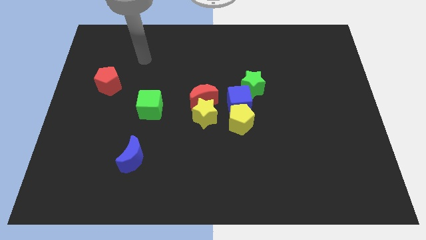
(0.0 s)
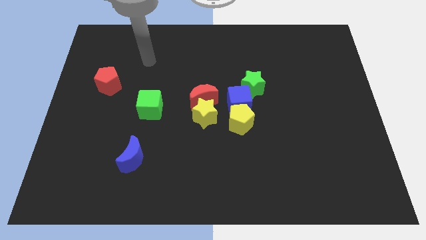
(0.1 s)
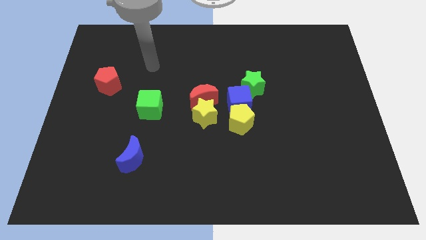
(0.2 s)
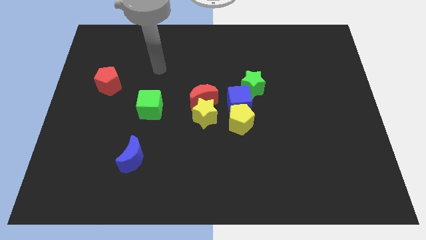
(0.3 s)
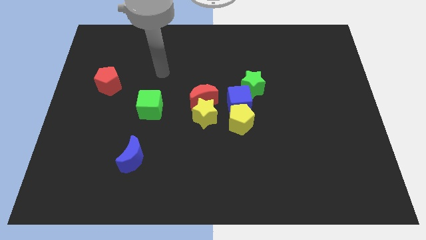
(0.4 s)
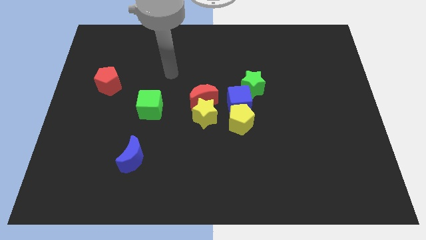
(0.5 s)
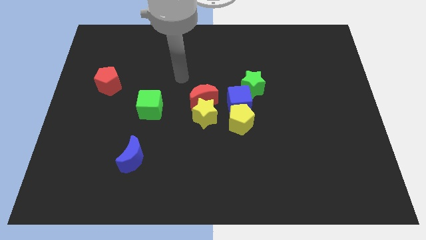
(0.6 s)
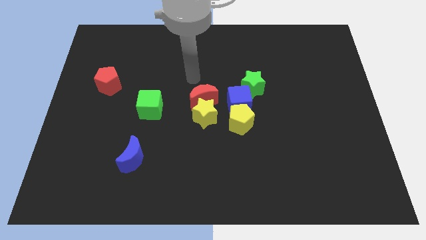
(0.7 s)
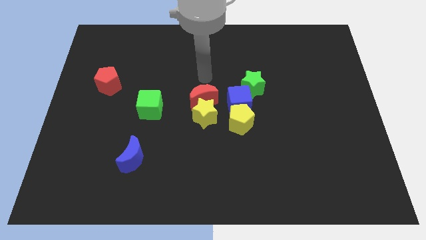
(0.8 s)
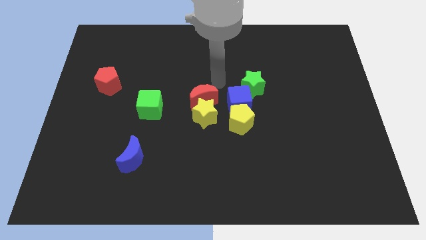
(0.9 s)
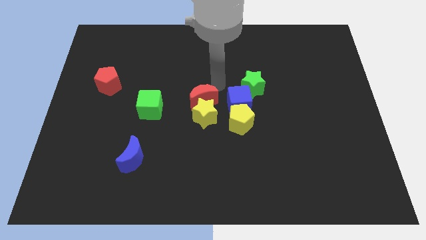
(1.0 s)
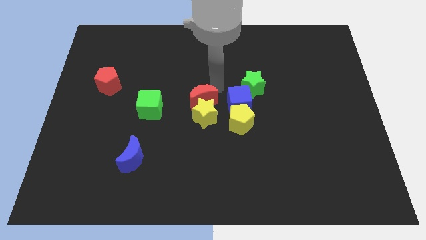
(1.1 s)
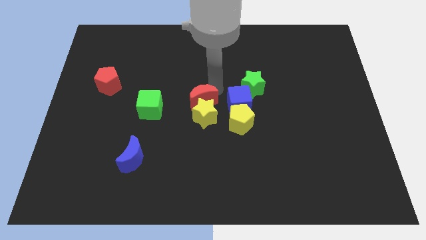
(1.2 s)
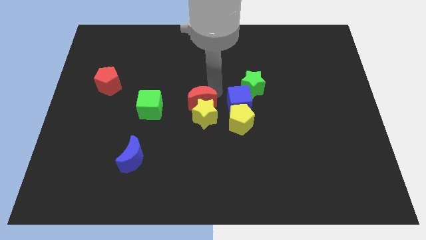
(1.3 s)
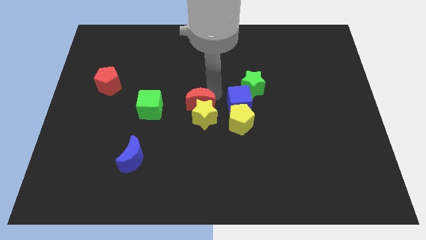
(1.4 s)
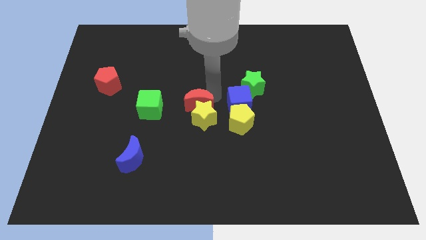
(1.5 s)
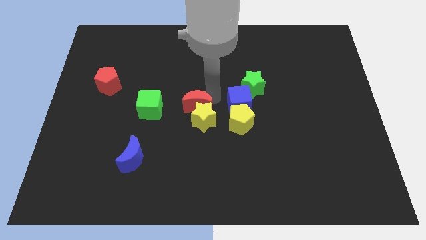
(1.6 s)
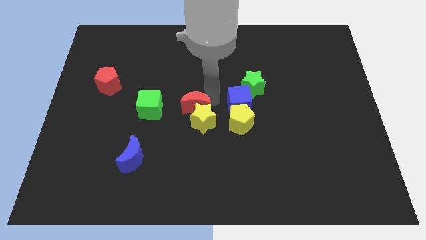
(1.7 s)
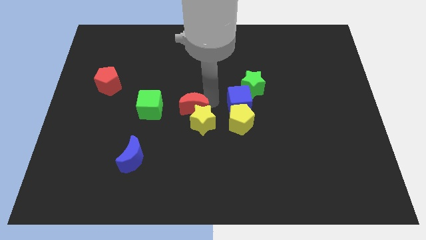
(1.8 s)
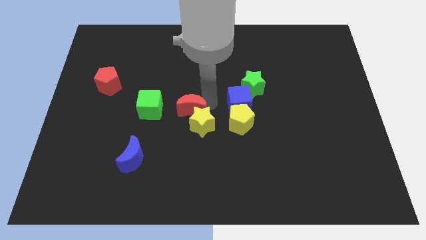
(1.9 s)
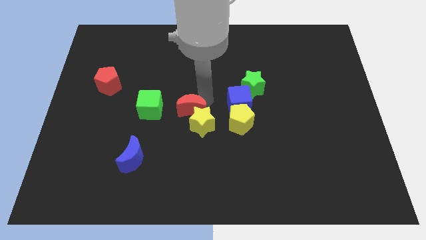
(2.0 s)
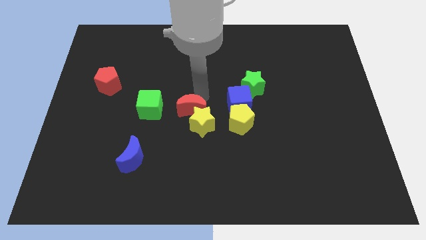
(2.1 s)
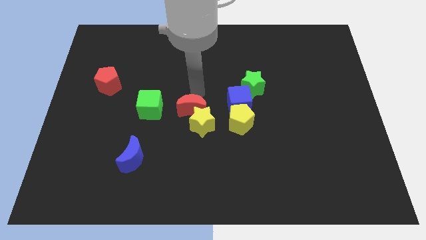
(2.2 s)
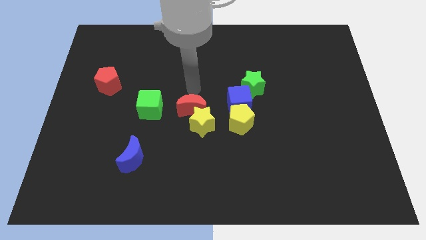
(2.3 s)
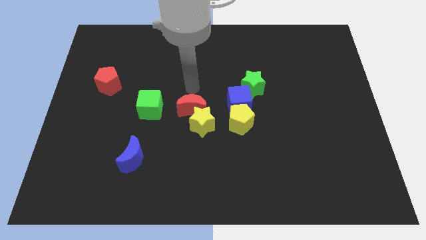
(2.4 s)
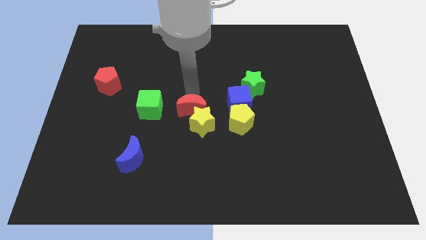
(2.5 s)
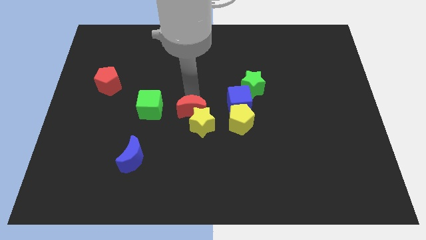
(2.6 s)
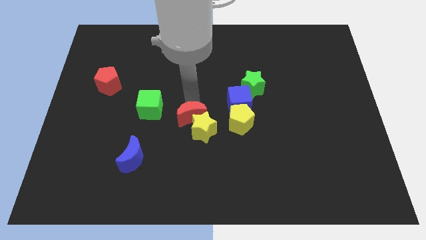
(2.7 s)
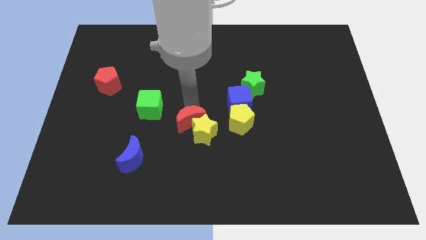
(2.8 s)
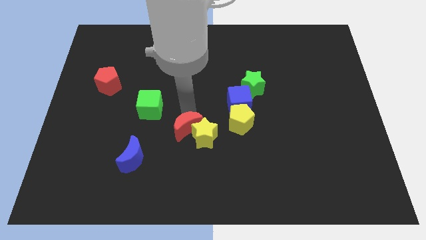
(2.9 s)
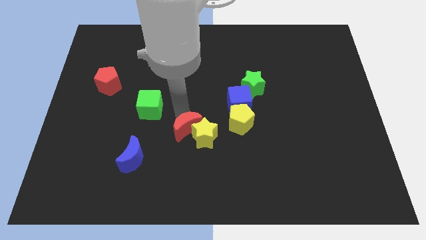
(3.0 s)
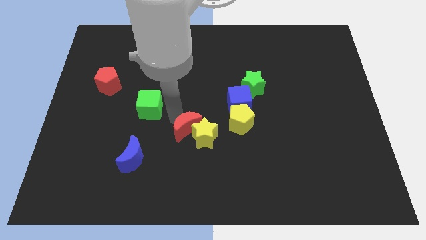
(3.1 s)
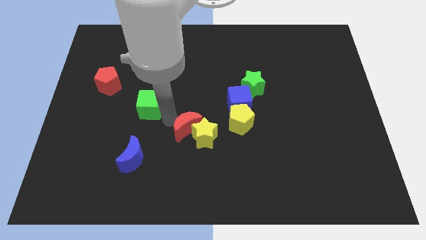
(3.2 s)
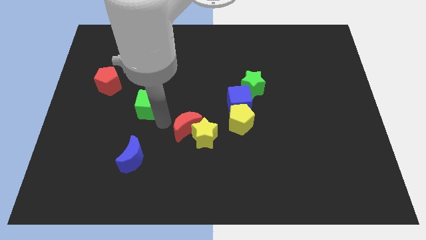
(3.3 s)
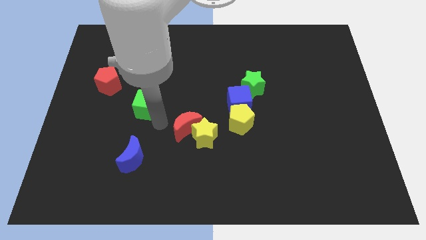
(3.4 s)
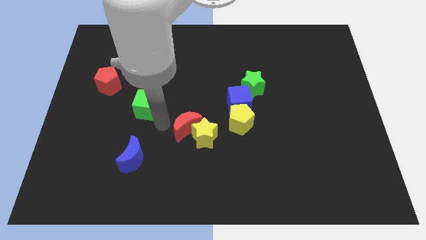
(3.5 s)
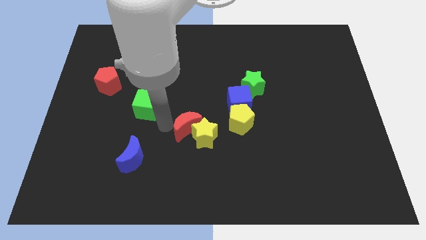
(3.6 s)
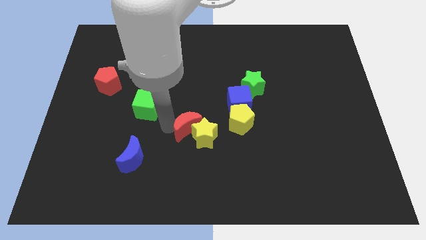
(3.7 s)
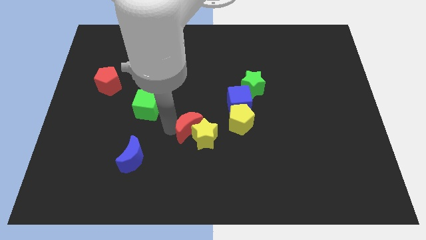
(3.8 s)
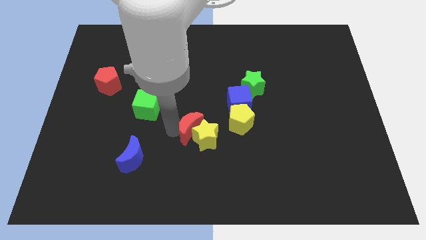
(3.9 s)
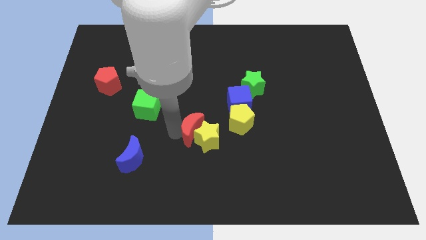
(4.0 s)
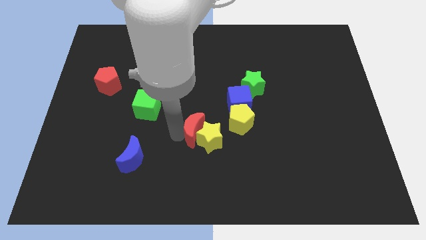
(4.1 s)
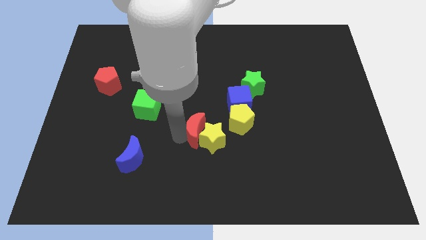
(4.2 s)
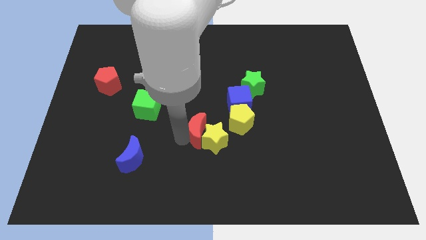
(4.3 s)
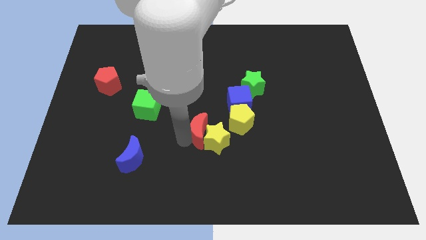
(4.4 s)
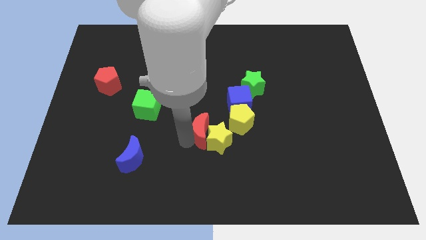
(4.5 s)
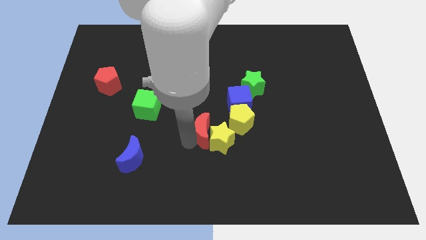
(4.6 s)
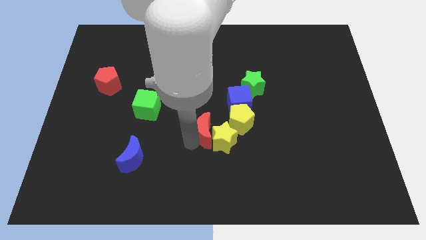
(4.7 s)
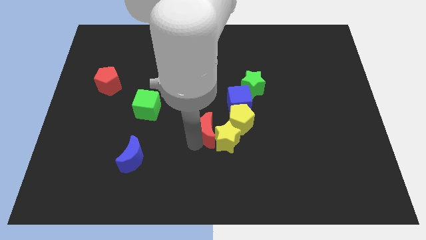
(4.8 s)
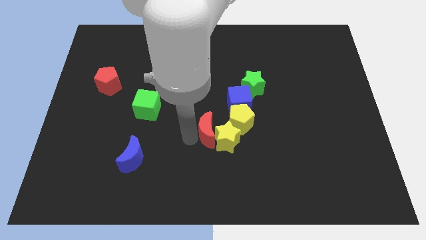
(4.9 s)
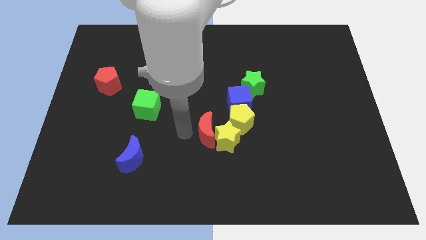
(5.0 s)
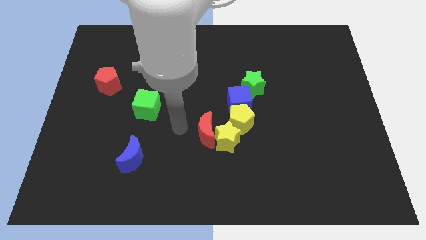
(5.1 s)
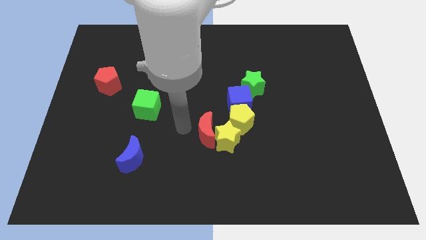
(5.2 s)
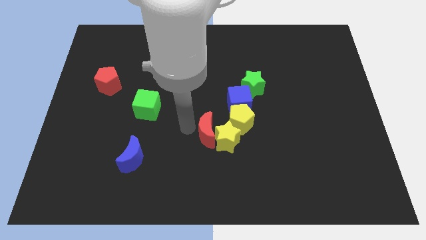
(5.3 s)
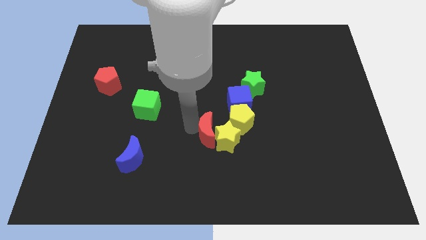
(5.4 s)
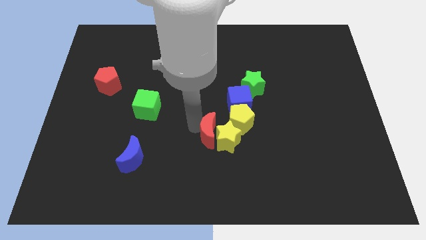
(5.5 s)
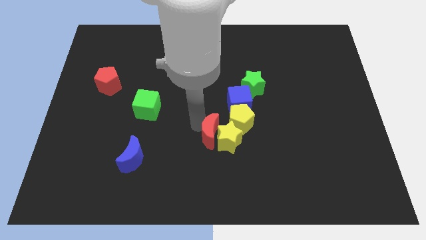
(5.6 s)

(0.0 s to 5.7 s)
move the red moon somewhat diagonally downwards and right

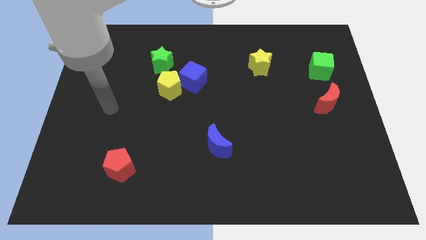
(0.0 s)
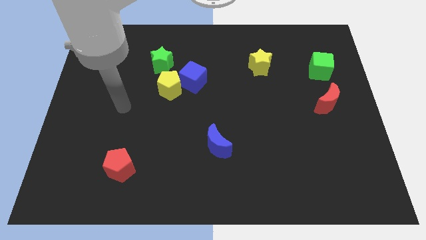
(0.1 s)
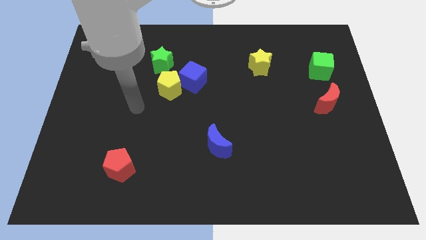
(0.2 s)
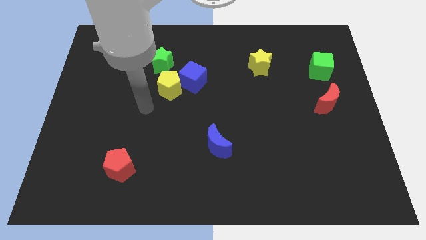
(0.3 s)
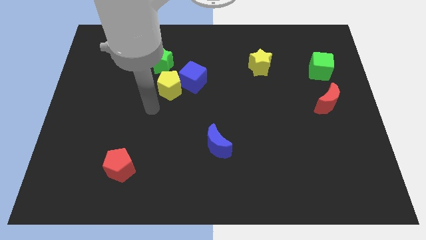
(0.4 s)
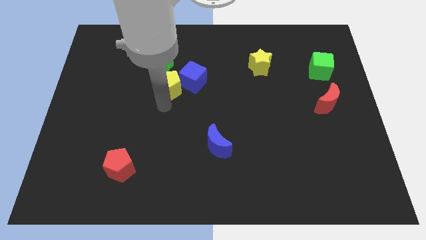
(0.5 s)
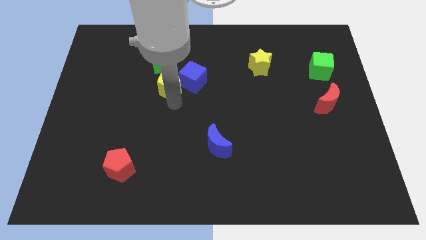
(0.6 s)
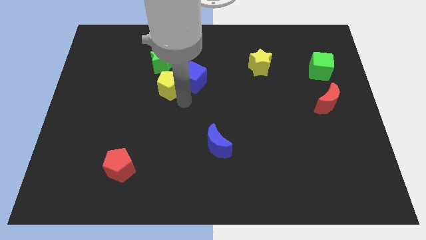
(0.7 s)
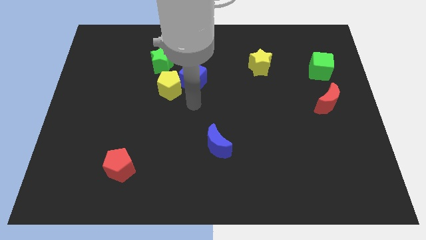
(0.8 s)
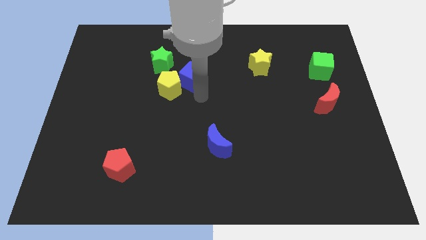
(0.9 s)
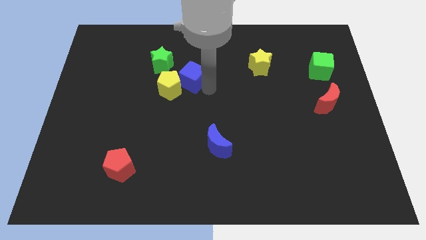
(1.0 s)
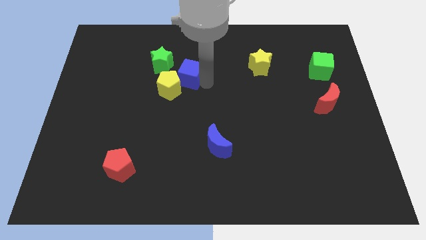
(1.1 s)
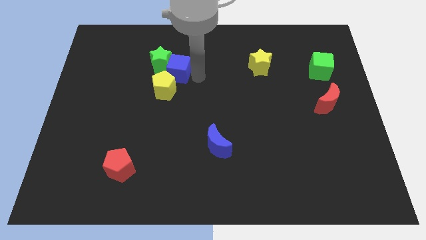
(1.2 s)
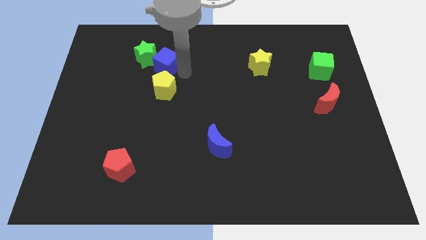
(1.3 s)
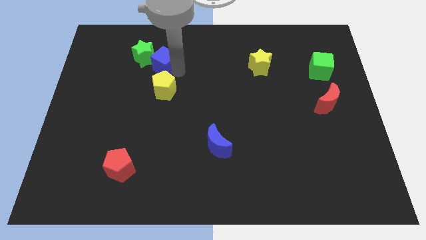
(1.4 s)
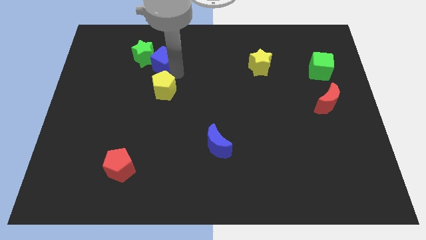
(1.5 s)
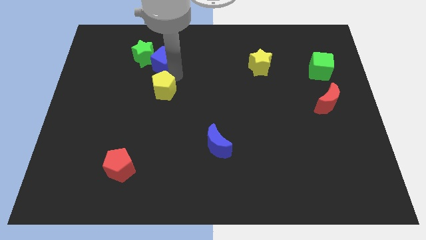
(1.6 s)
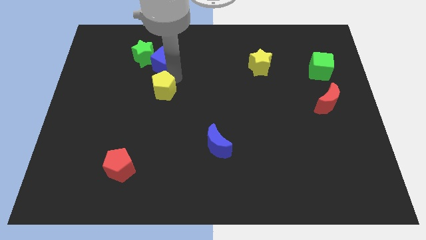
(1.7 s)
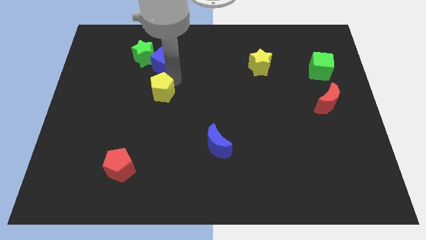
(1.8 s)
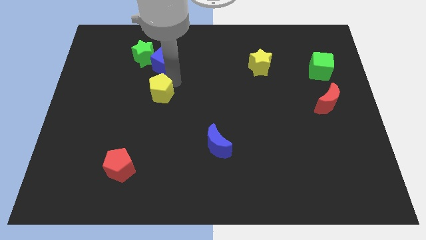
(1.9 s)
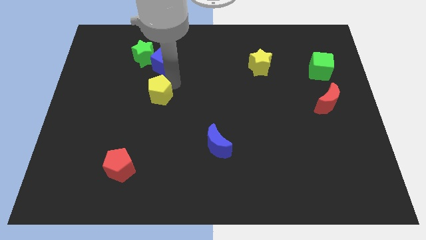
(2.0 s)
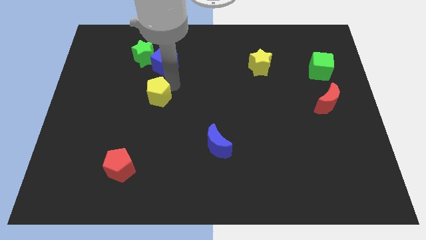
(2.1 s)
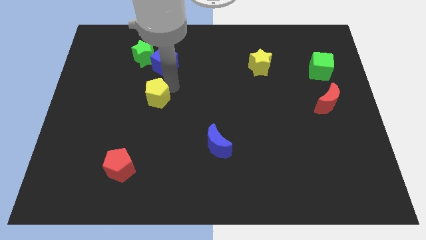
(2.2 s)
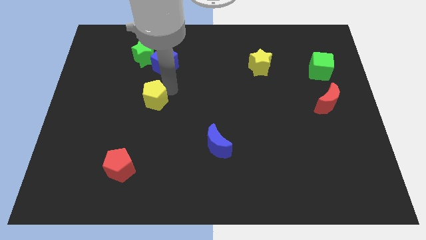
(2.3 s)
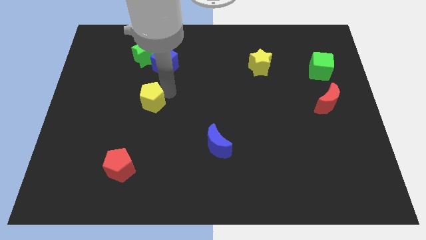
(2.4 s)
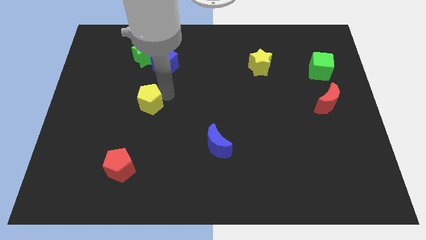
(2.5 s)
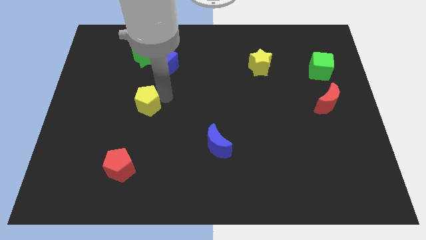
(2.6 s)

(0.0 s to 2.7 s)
slide the yellow pentagon diagonally downwards and to the left a little
